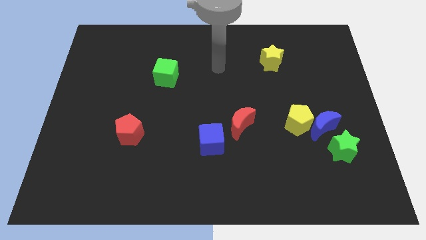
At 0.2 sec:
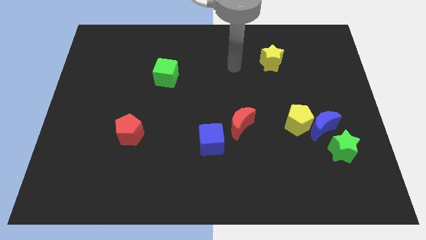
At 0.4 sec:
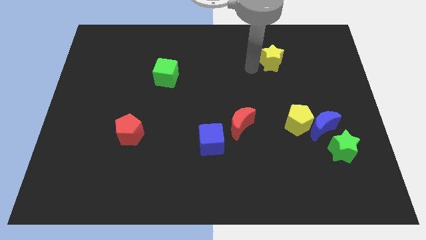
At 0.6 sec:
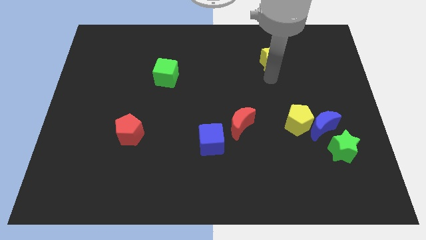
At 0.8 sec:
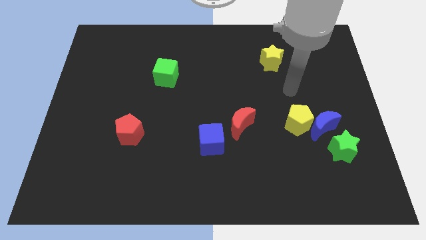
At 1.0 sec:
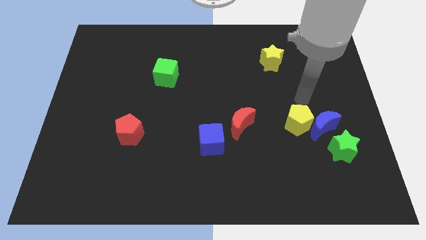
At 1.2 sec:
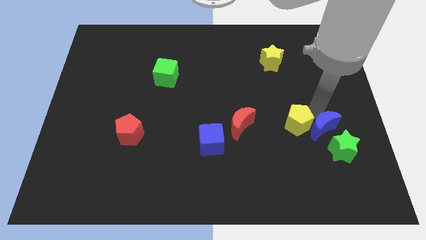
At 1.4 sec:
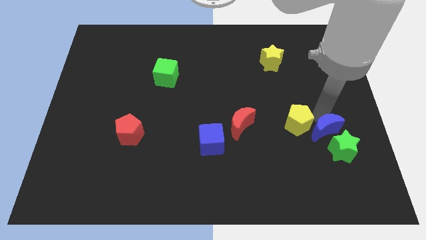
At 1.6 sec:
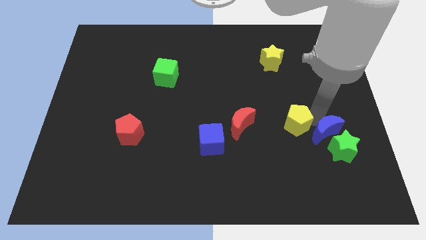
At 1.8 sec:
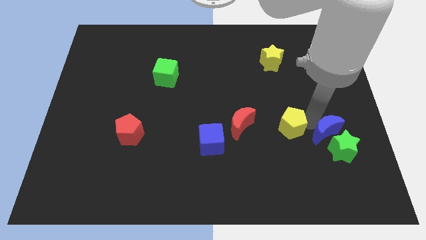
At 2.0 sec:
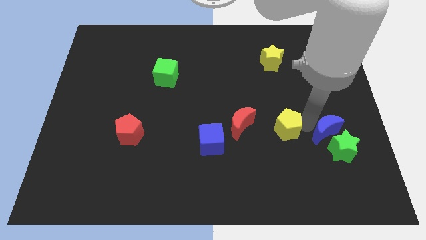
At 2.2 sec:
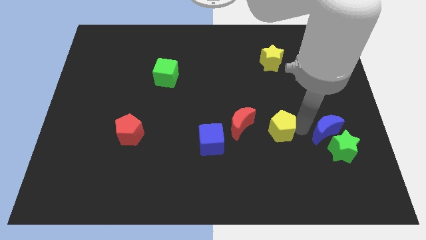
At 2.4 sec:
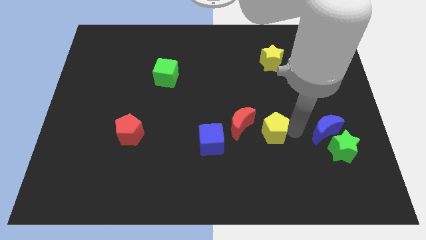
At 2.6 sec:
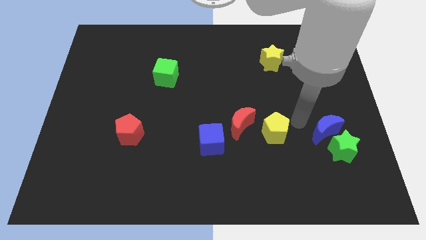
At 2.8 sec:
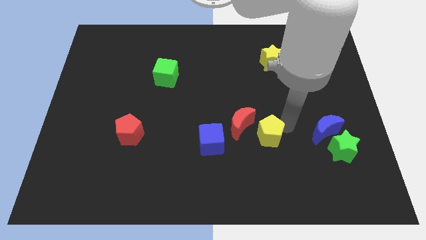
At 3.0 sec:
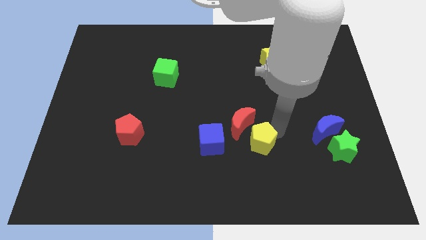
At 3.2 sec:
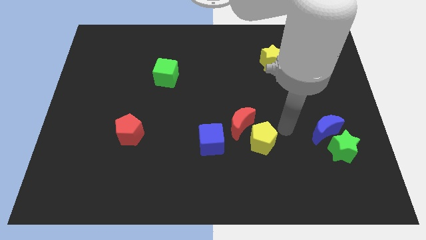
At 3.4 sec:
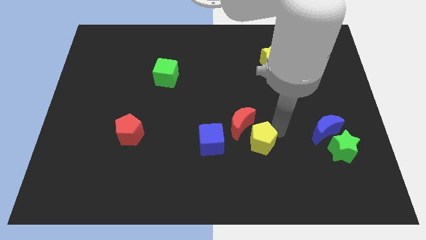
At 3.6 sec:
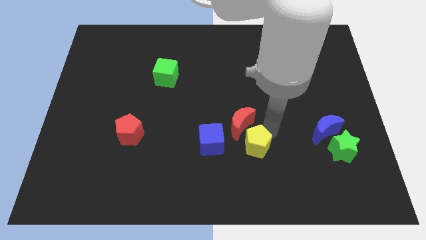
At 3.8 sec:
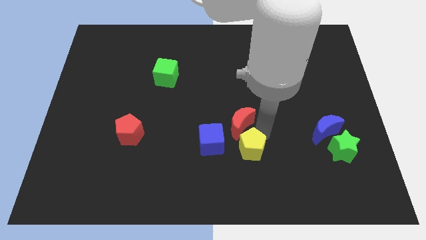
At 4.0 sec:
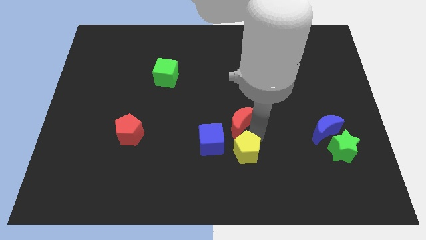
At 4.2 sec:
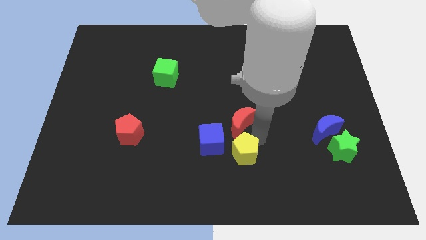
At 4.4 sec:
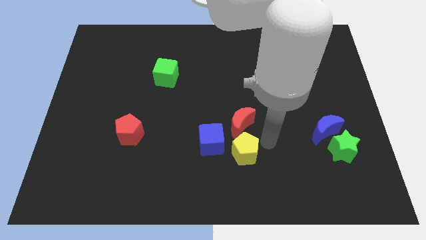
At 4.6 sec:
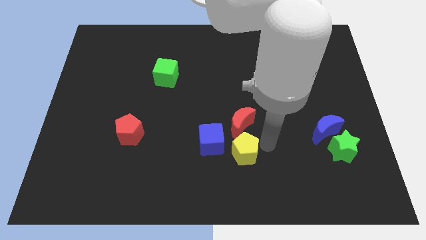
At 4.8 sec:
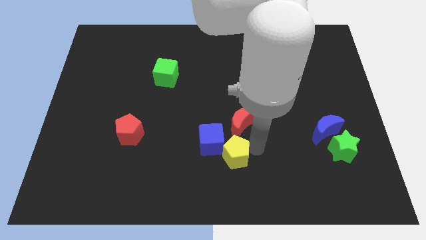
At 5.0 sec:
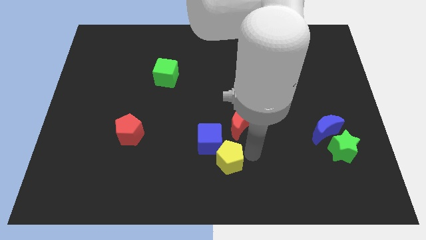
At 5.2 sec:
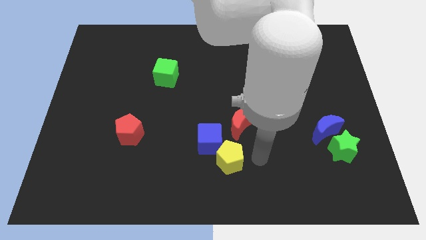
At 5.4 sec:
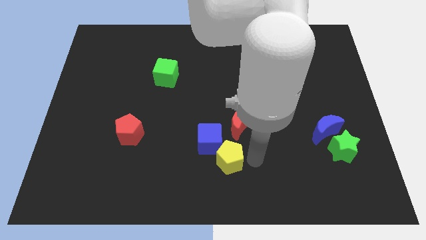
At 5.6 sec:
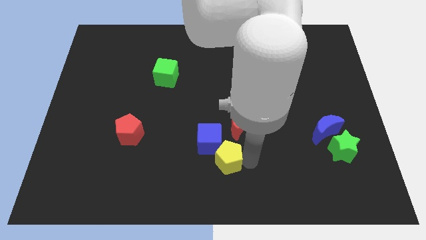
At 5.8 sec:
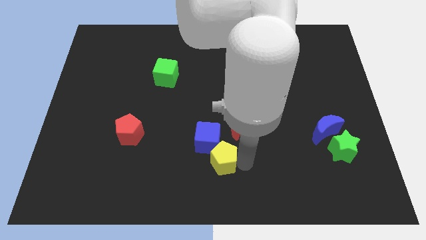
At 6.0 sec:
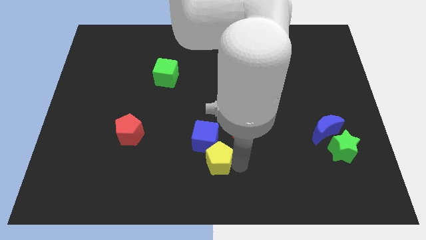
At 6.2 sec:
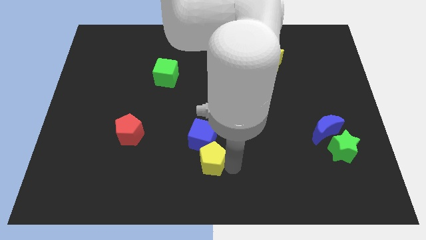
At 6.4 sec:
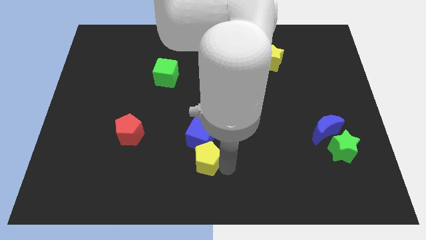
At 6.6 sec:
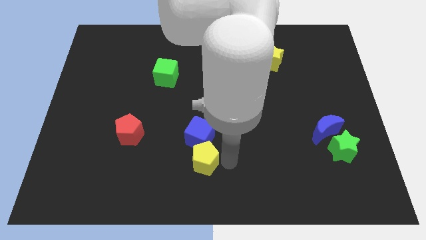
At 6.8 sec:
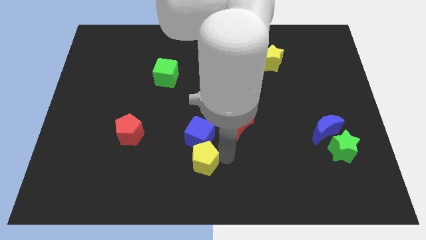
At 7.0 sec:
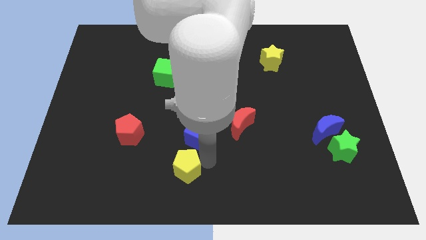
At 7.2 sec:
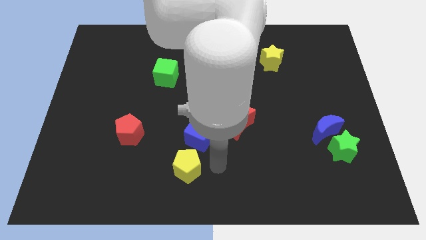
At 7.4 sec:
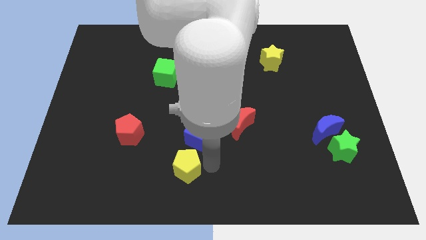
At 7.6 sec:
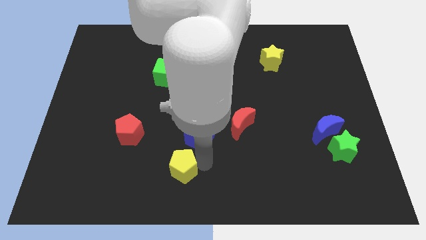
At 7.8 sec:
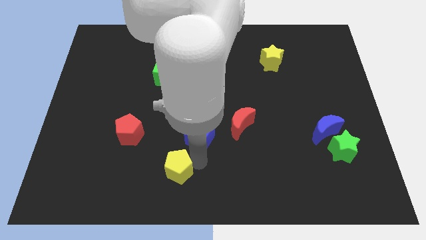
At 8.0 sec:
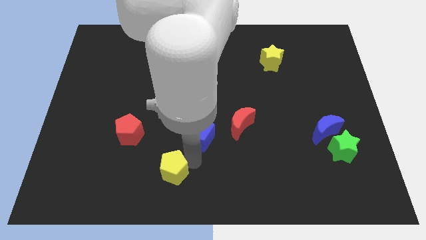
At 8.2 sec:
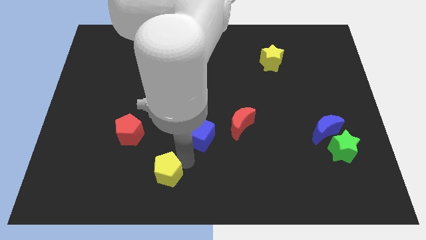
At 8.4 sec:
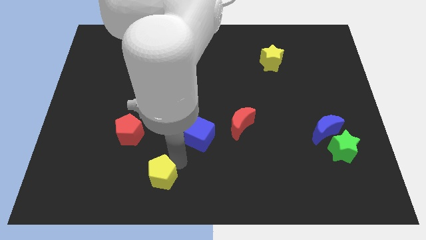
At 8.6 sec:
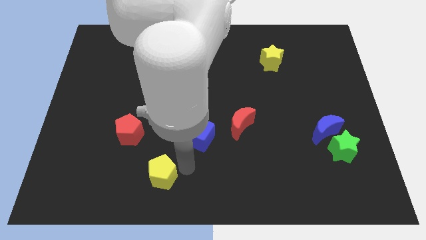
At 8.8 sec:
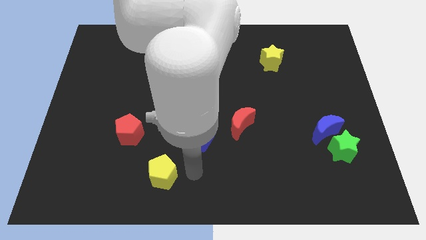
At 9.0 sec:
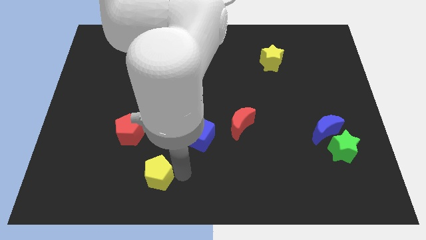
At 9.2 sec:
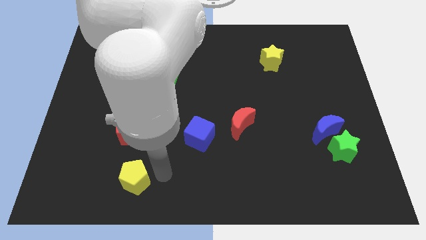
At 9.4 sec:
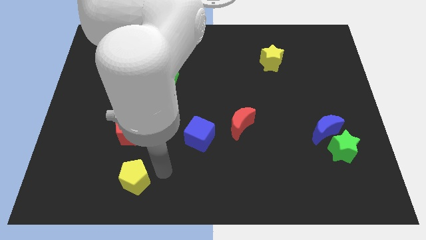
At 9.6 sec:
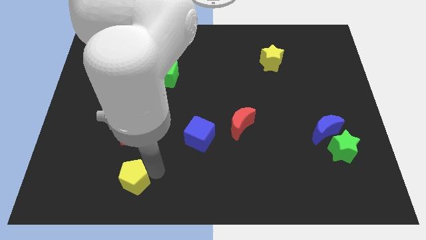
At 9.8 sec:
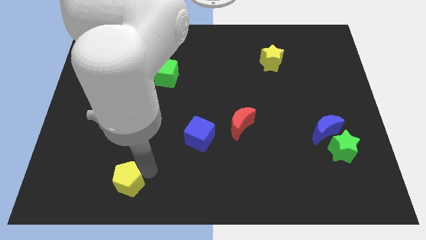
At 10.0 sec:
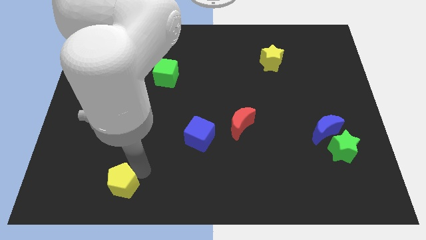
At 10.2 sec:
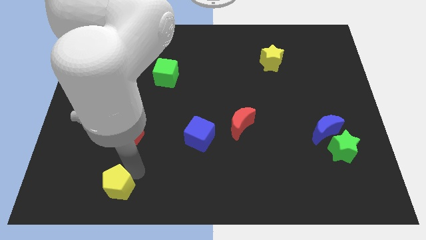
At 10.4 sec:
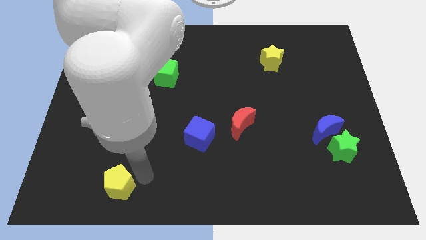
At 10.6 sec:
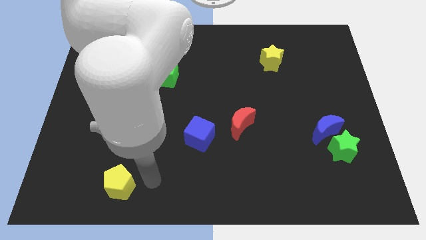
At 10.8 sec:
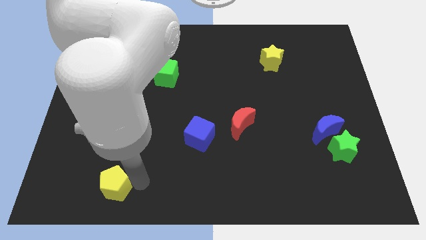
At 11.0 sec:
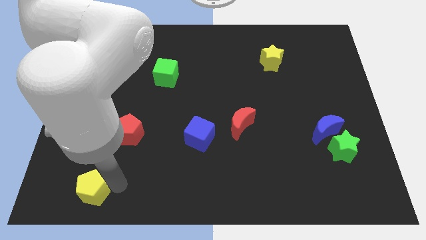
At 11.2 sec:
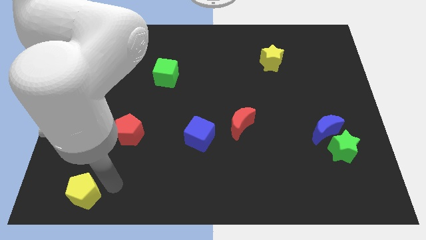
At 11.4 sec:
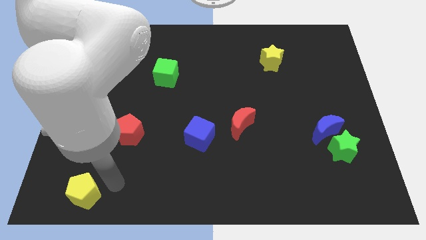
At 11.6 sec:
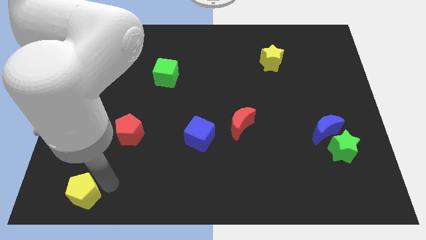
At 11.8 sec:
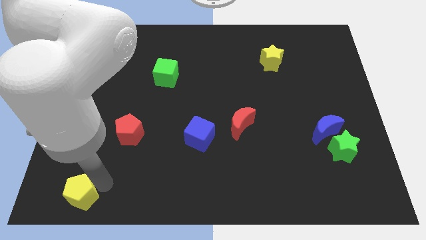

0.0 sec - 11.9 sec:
slide the yellow pentagon to the lower left corner
